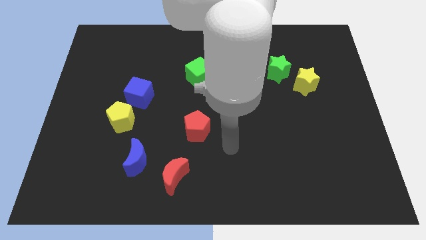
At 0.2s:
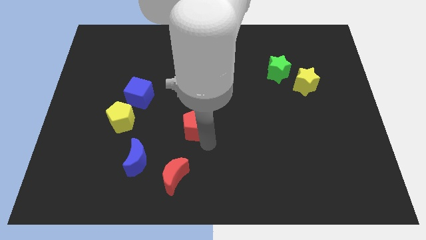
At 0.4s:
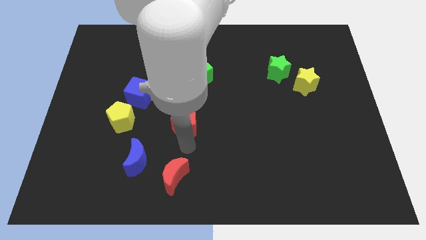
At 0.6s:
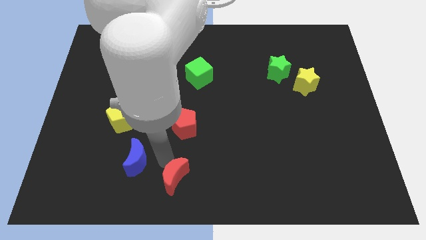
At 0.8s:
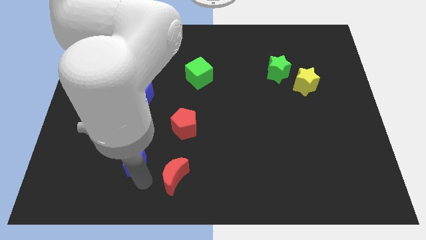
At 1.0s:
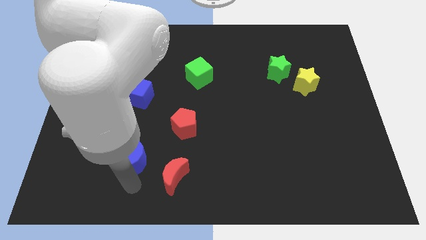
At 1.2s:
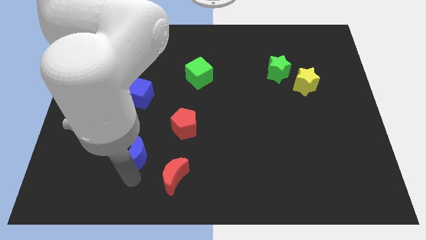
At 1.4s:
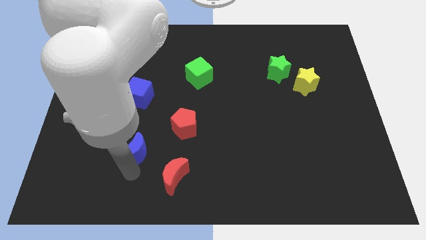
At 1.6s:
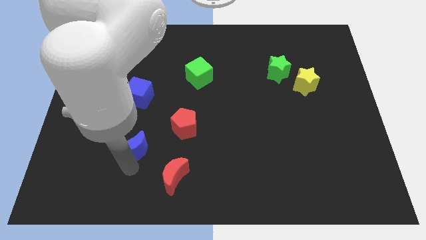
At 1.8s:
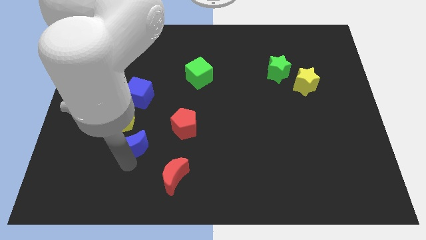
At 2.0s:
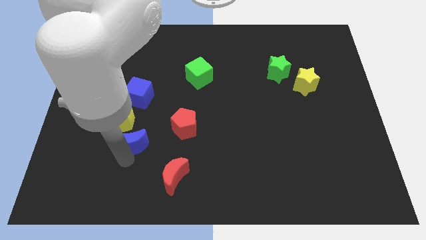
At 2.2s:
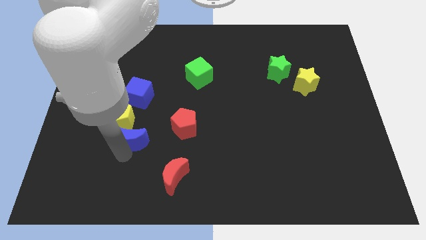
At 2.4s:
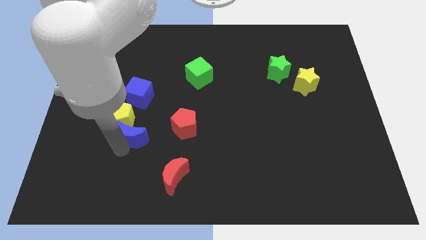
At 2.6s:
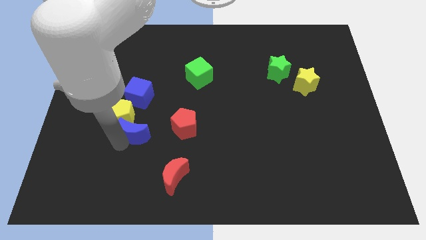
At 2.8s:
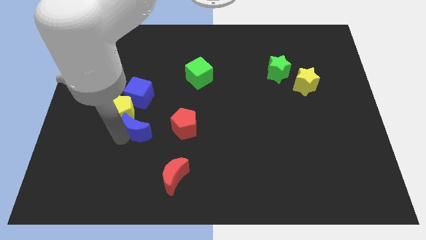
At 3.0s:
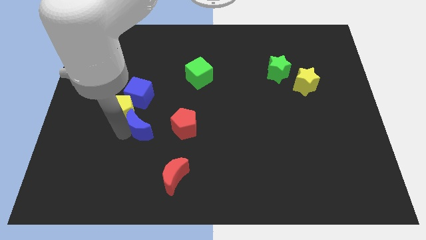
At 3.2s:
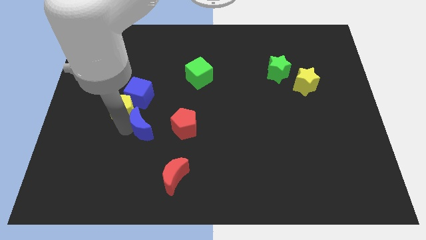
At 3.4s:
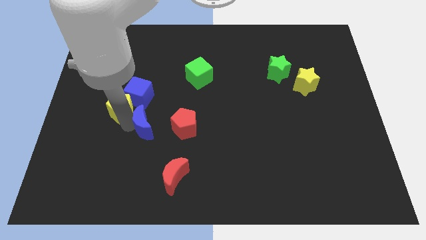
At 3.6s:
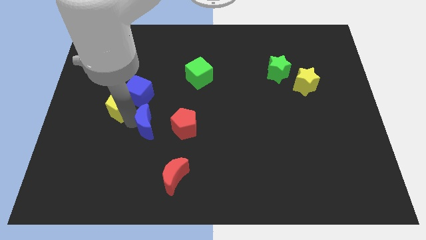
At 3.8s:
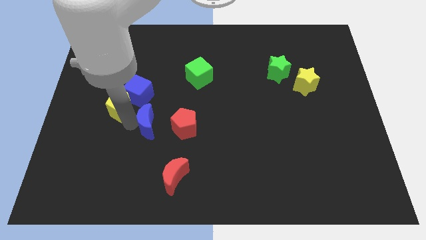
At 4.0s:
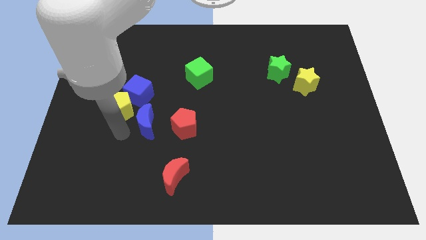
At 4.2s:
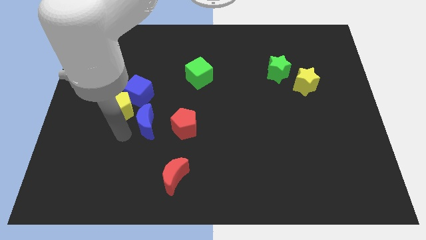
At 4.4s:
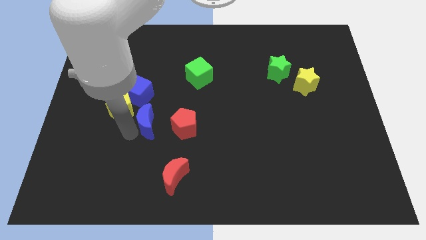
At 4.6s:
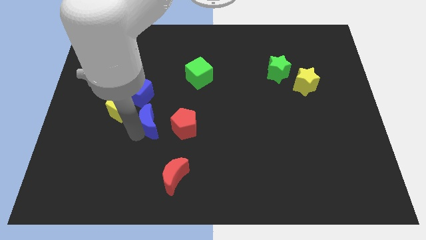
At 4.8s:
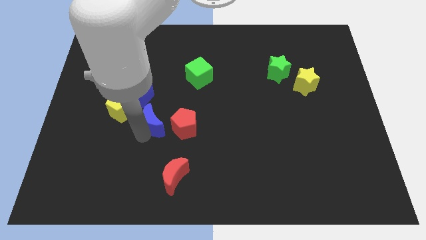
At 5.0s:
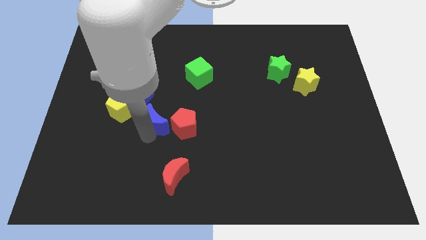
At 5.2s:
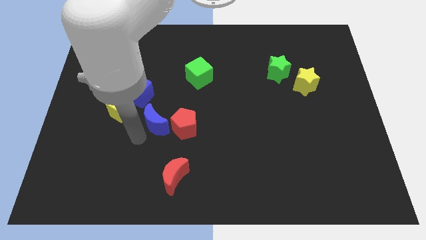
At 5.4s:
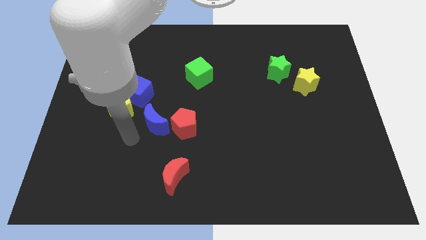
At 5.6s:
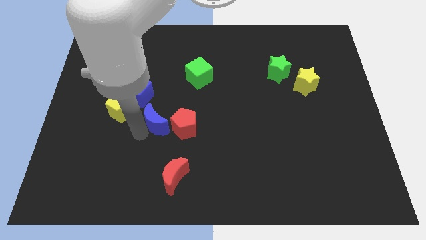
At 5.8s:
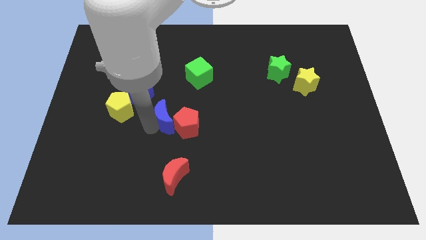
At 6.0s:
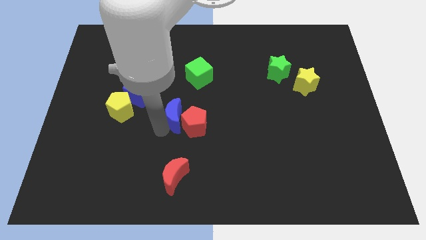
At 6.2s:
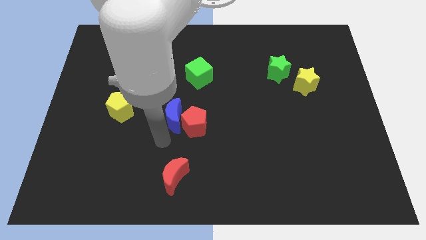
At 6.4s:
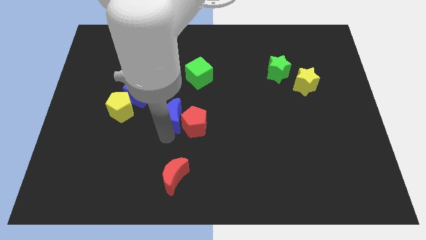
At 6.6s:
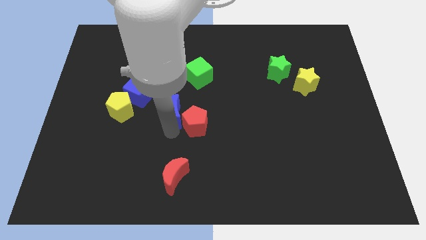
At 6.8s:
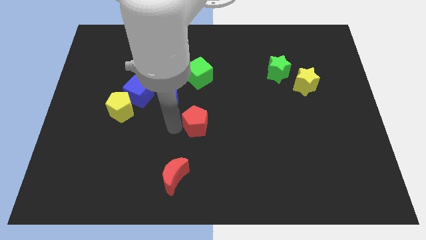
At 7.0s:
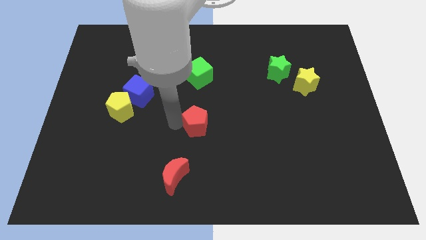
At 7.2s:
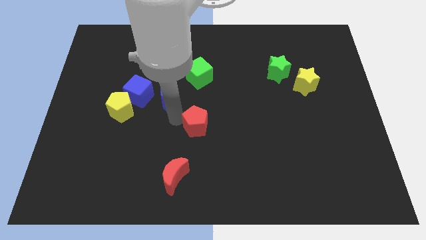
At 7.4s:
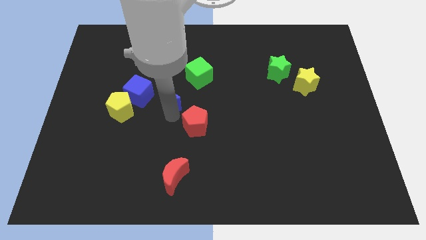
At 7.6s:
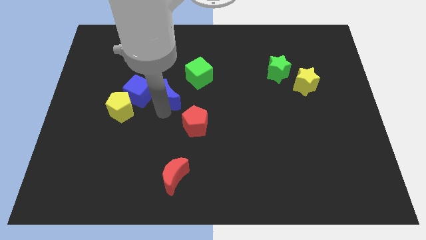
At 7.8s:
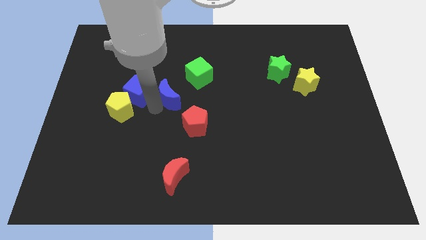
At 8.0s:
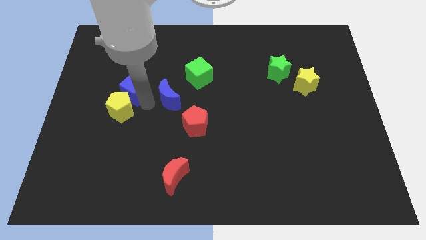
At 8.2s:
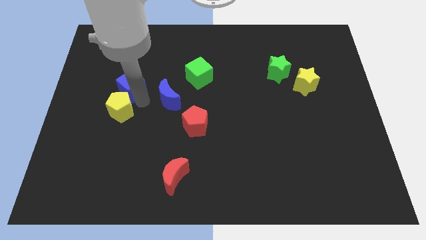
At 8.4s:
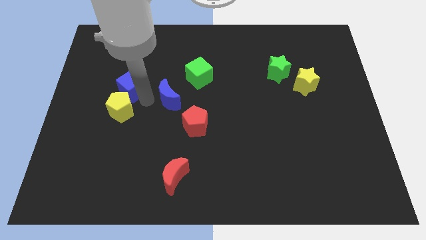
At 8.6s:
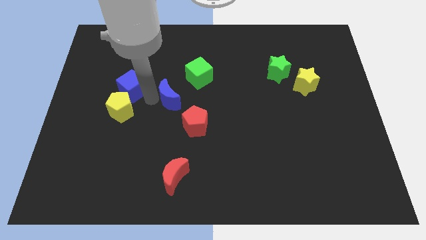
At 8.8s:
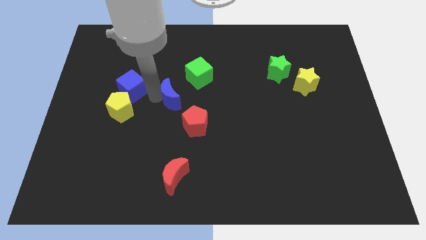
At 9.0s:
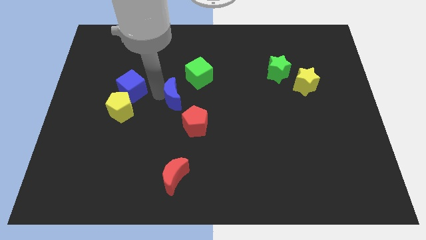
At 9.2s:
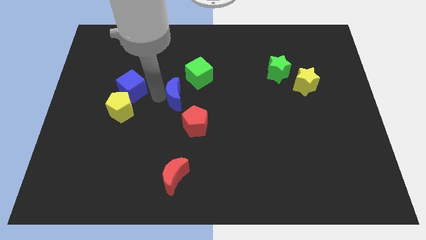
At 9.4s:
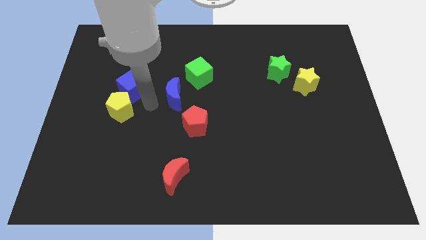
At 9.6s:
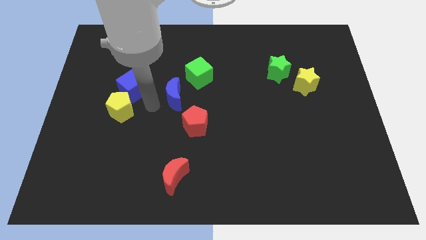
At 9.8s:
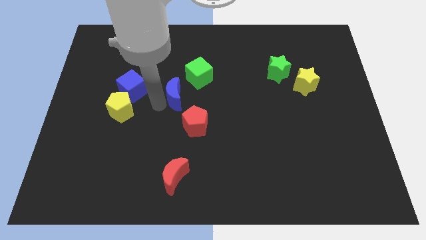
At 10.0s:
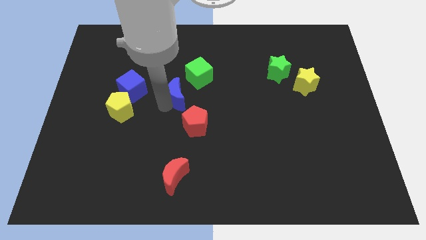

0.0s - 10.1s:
push the blue moon to the top side of the red pentagon

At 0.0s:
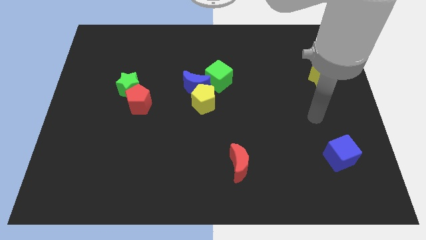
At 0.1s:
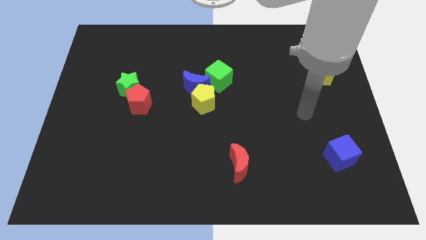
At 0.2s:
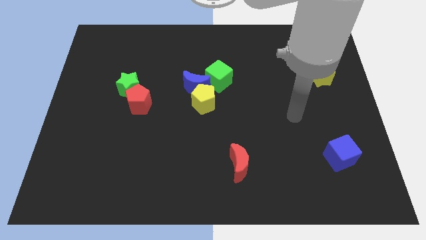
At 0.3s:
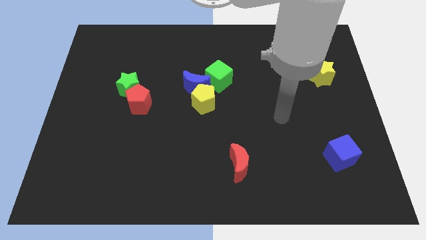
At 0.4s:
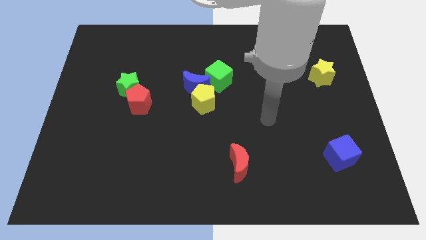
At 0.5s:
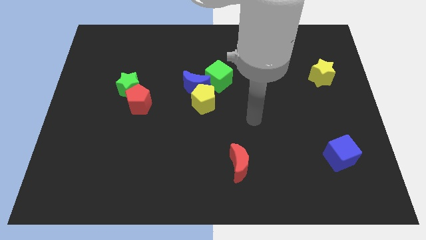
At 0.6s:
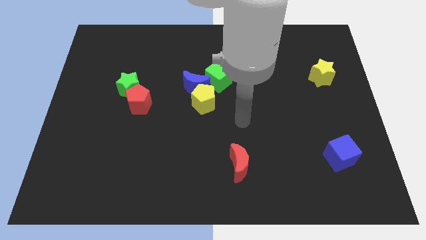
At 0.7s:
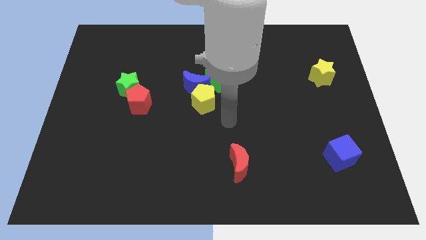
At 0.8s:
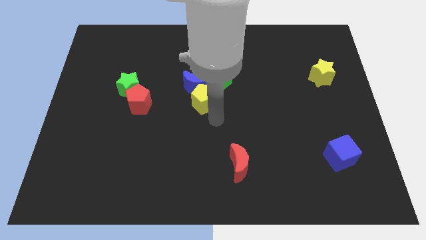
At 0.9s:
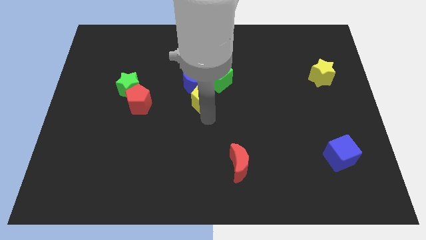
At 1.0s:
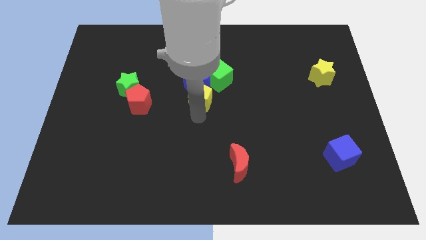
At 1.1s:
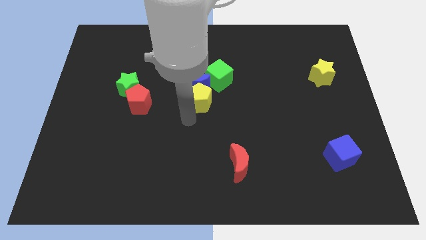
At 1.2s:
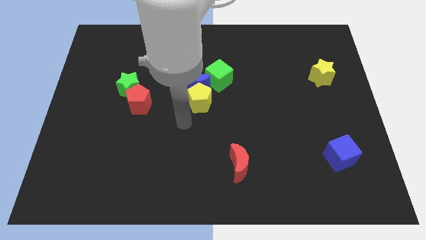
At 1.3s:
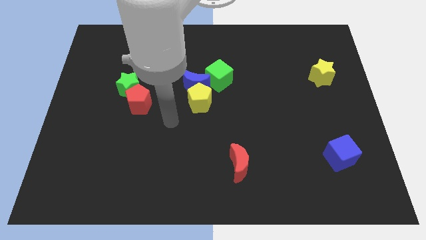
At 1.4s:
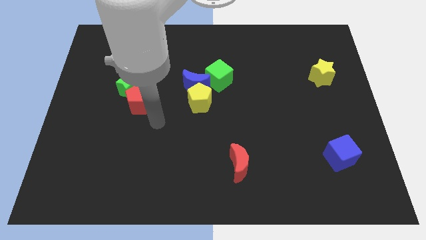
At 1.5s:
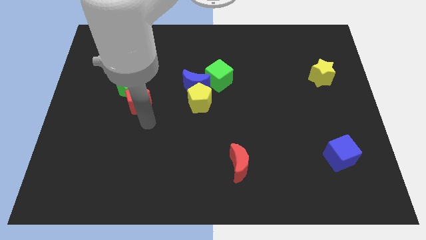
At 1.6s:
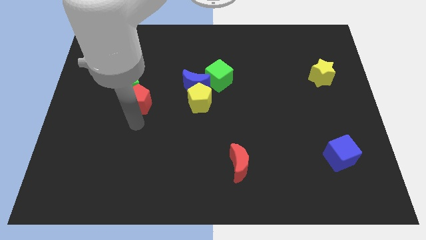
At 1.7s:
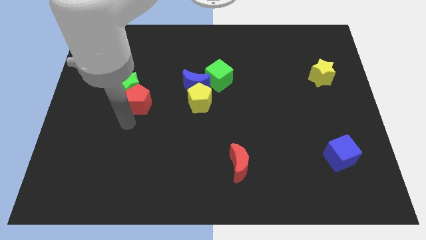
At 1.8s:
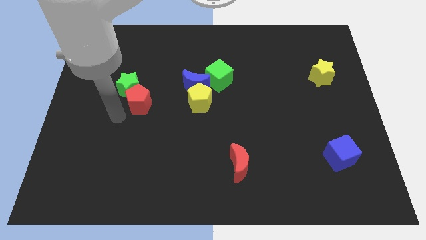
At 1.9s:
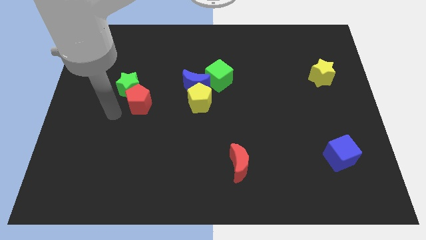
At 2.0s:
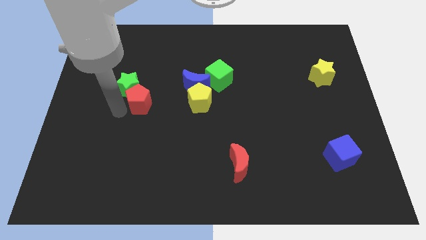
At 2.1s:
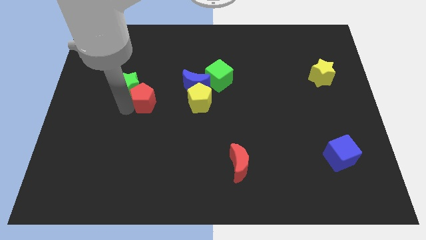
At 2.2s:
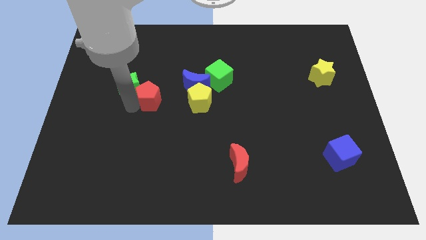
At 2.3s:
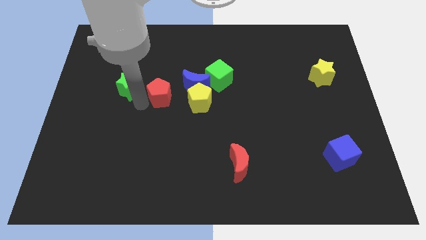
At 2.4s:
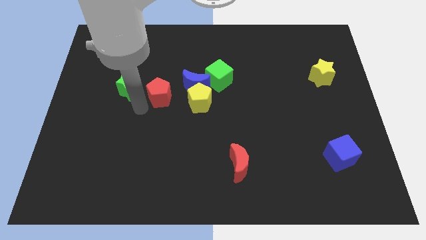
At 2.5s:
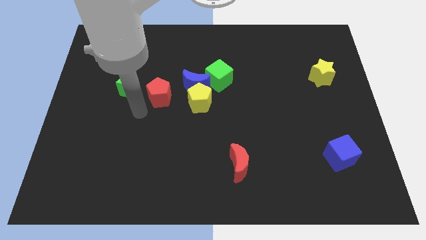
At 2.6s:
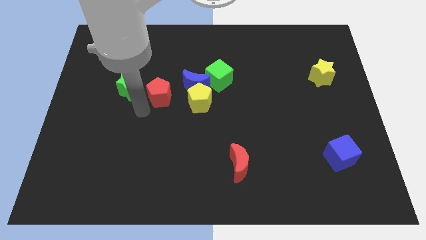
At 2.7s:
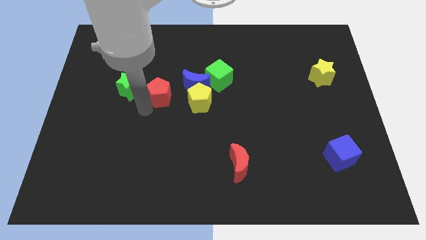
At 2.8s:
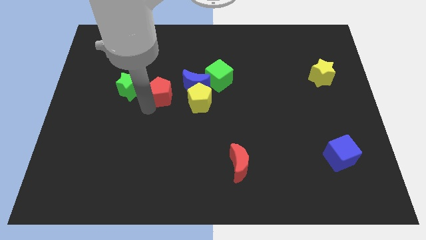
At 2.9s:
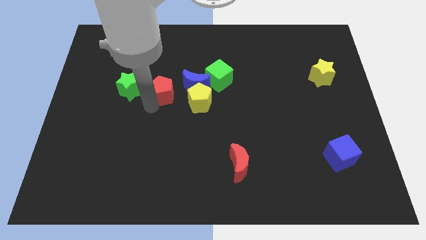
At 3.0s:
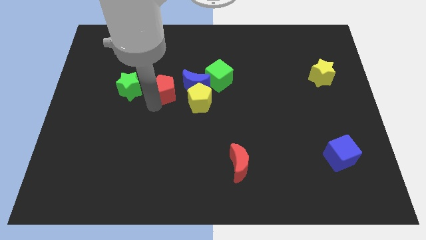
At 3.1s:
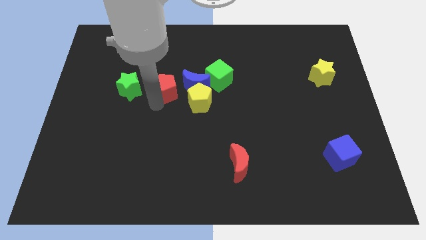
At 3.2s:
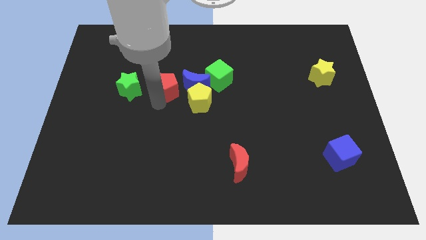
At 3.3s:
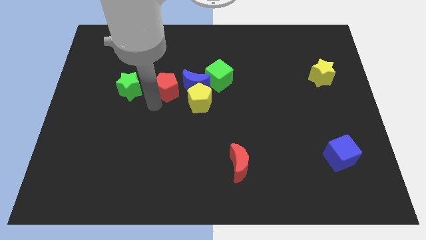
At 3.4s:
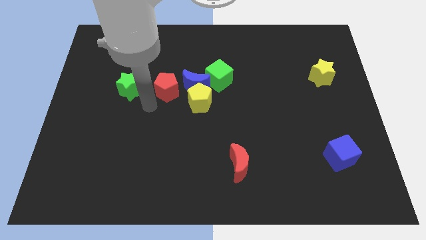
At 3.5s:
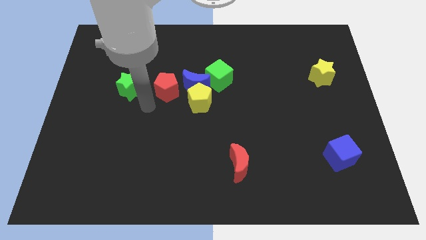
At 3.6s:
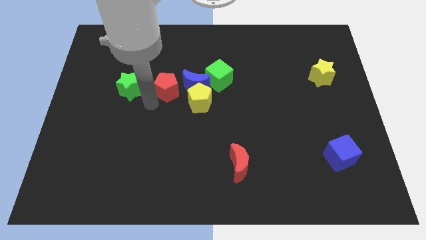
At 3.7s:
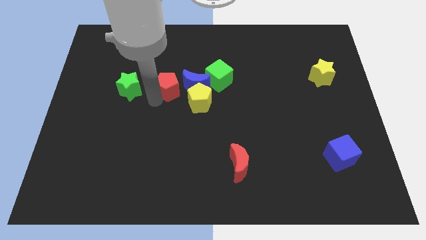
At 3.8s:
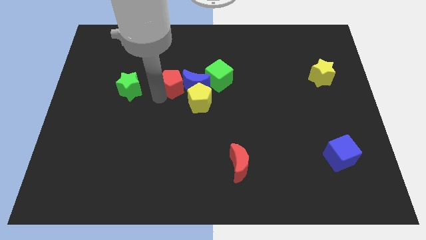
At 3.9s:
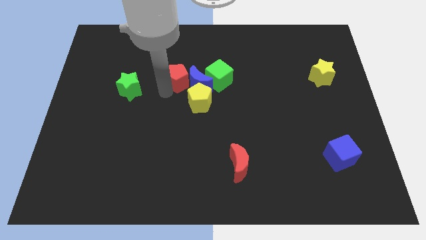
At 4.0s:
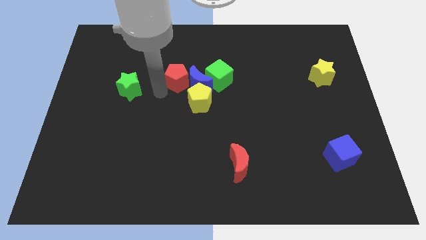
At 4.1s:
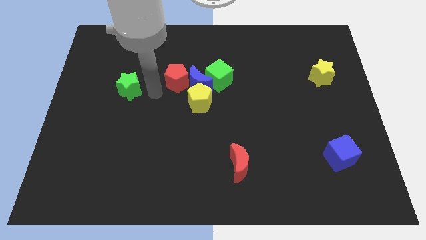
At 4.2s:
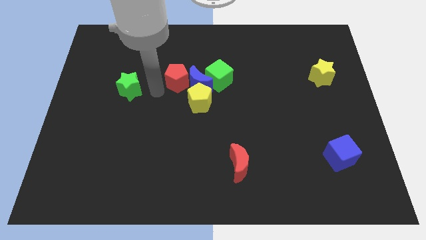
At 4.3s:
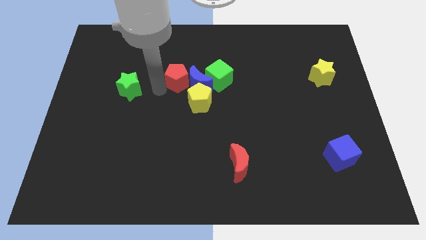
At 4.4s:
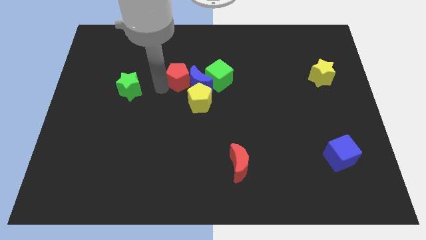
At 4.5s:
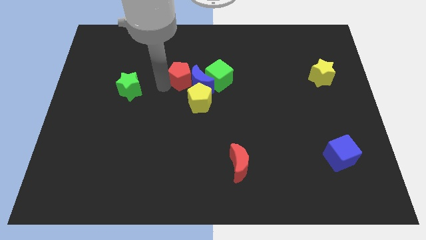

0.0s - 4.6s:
put the red pentagon above the yellow pentagon
